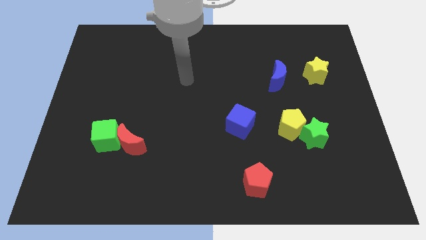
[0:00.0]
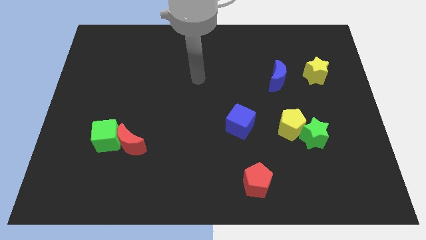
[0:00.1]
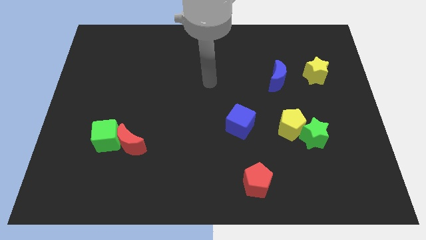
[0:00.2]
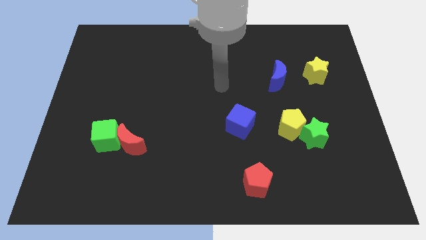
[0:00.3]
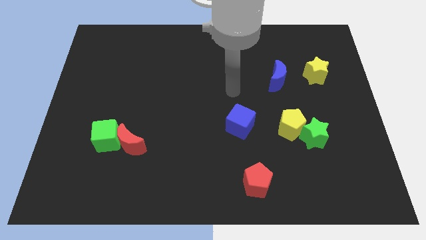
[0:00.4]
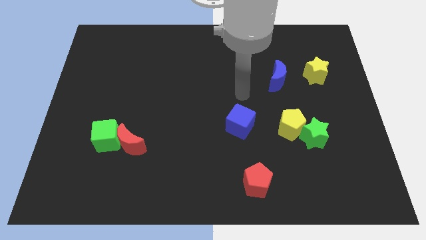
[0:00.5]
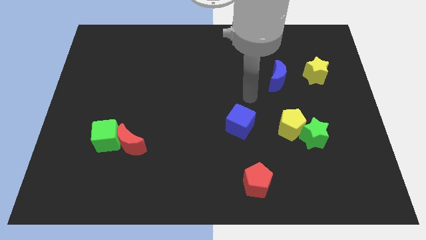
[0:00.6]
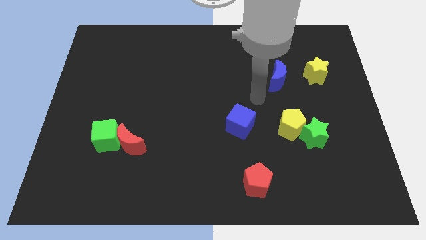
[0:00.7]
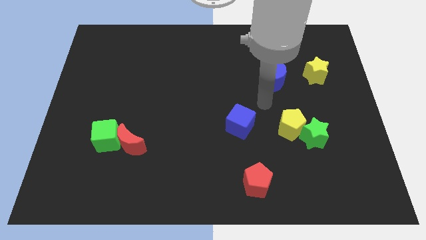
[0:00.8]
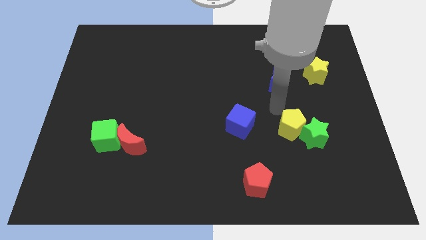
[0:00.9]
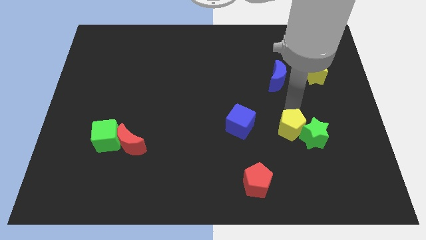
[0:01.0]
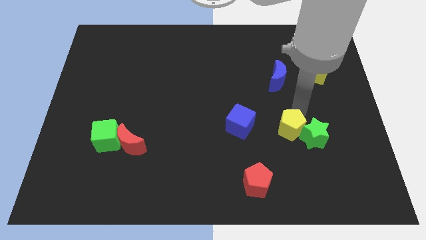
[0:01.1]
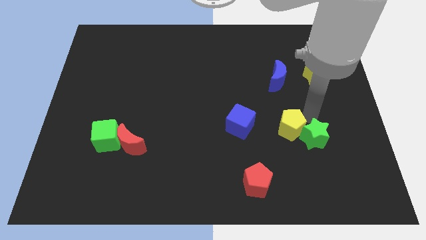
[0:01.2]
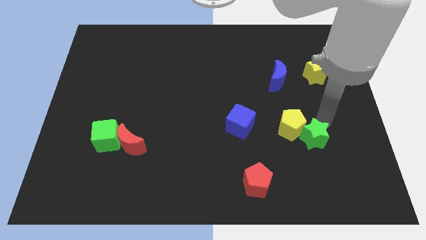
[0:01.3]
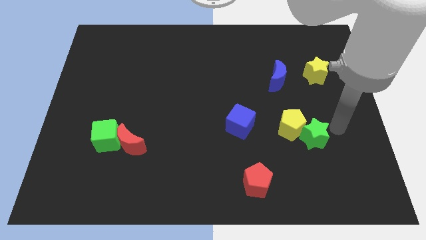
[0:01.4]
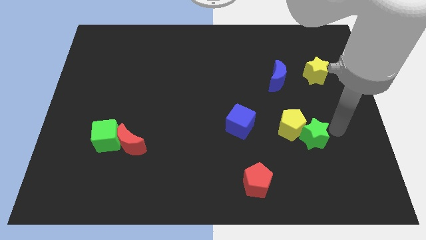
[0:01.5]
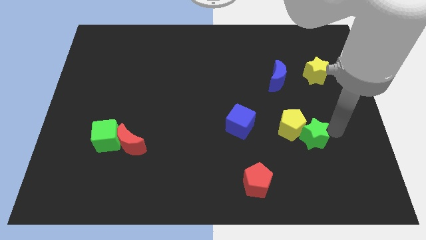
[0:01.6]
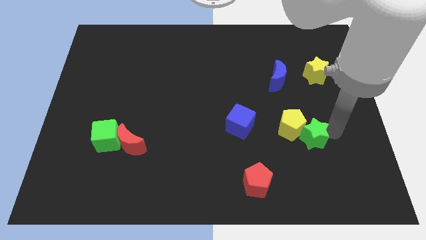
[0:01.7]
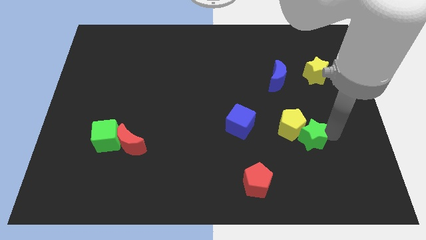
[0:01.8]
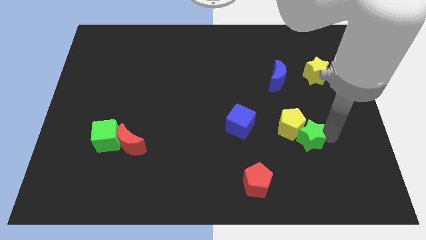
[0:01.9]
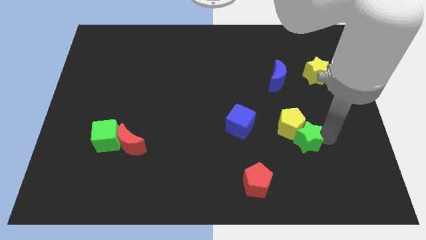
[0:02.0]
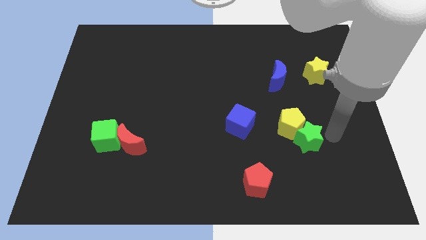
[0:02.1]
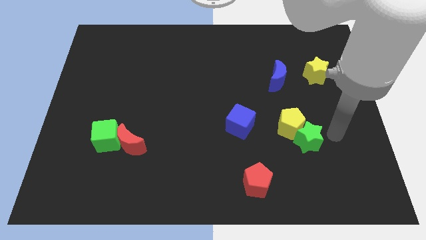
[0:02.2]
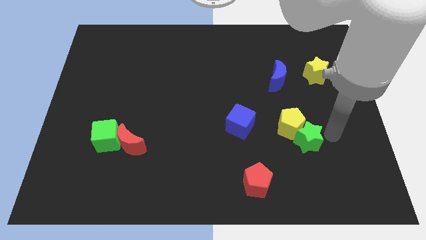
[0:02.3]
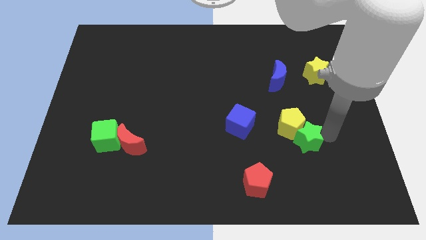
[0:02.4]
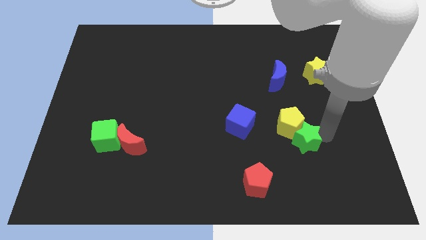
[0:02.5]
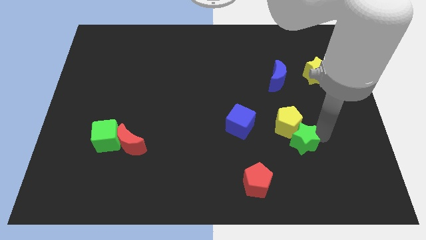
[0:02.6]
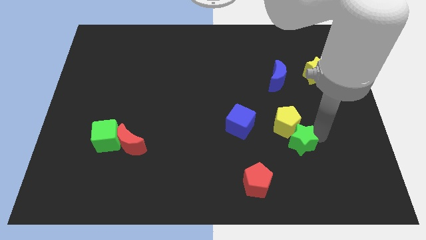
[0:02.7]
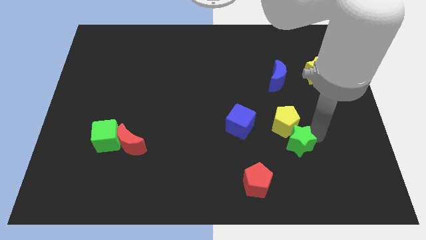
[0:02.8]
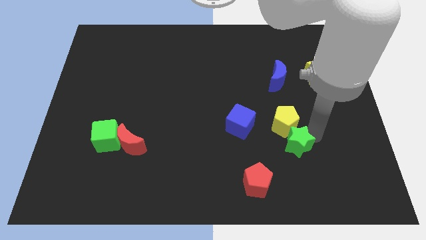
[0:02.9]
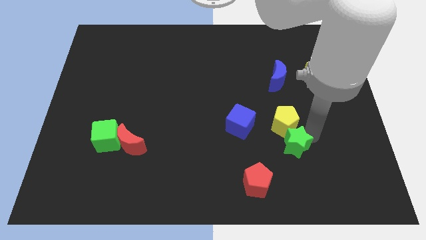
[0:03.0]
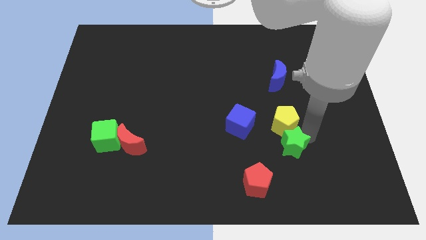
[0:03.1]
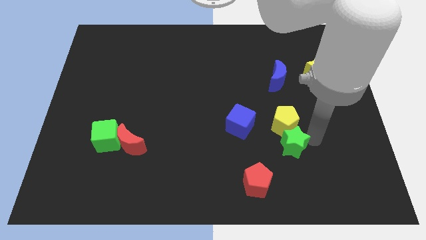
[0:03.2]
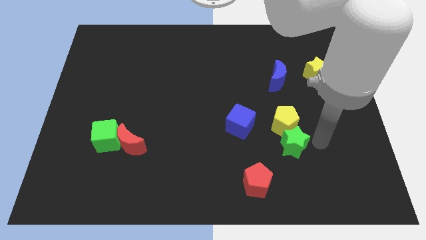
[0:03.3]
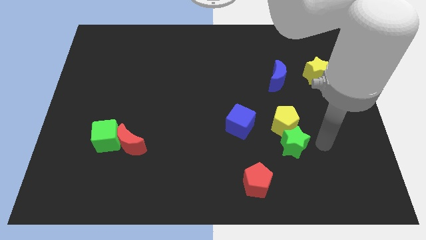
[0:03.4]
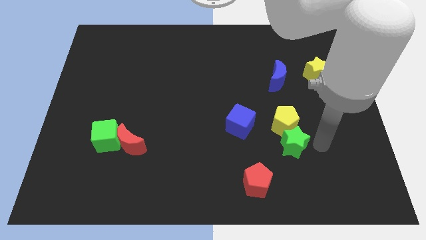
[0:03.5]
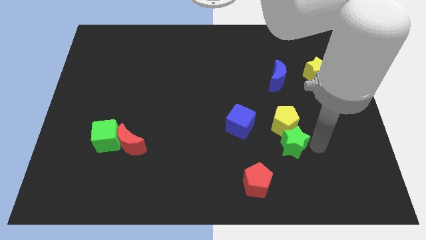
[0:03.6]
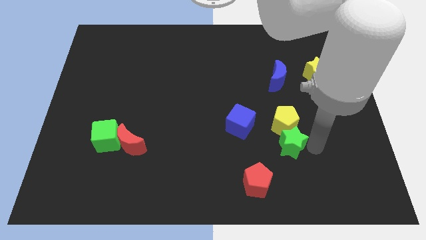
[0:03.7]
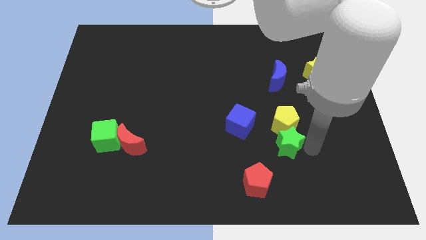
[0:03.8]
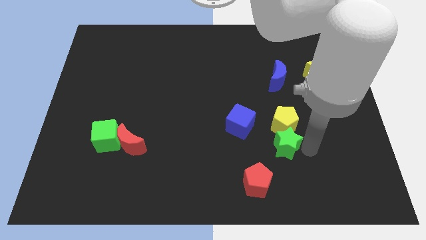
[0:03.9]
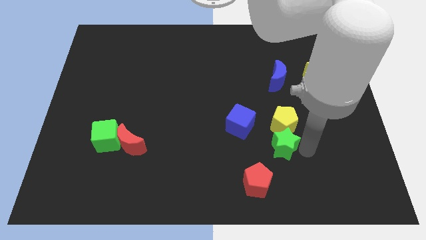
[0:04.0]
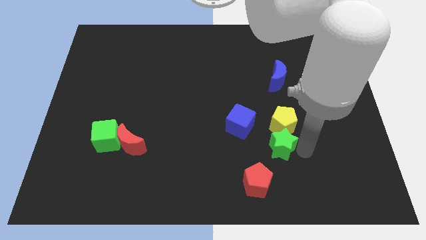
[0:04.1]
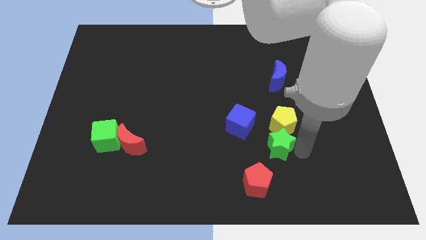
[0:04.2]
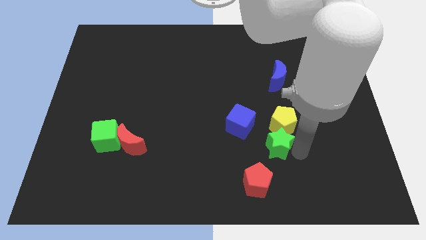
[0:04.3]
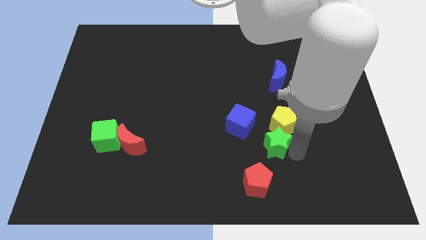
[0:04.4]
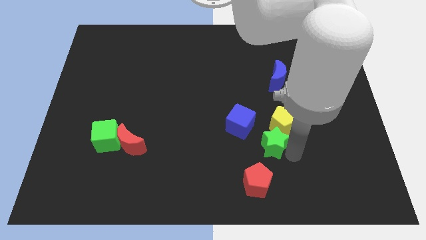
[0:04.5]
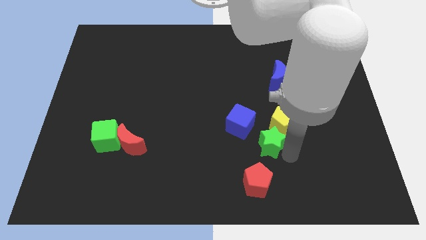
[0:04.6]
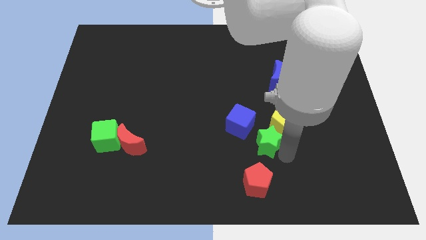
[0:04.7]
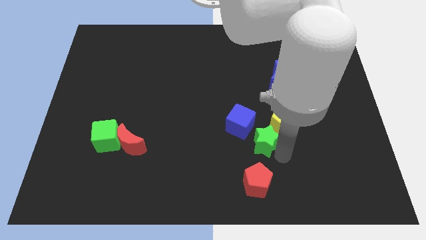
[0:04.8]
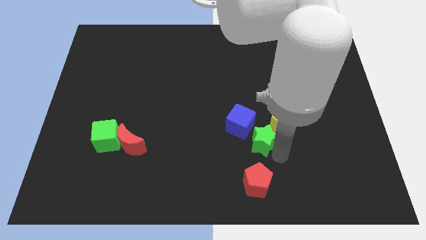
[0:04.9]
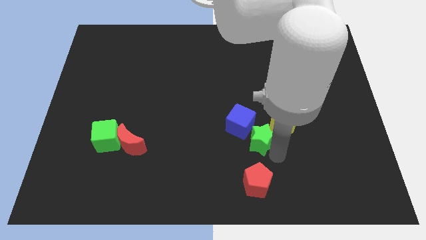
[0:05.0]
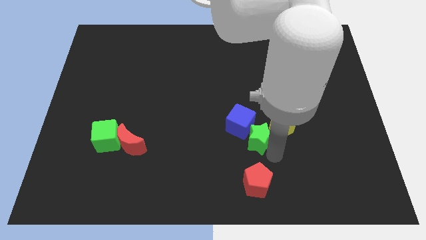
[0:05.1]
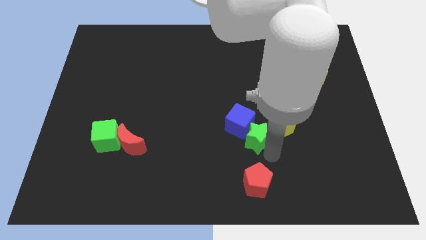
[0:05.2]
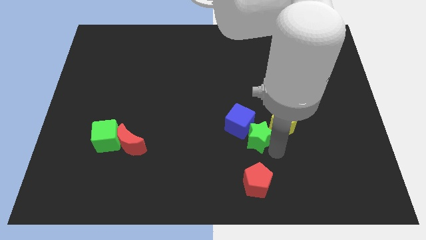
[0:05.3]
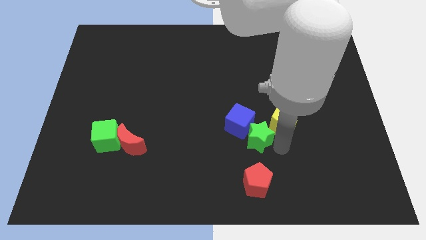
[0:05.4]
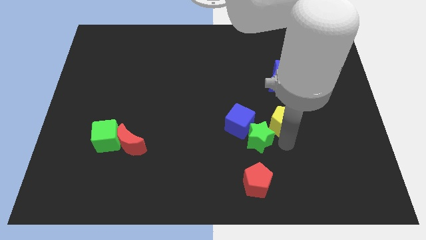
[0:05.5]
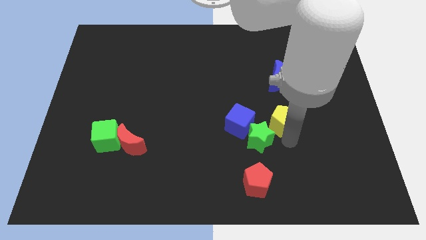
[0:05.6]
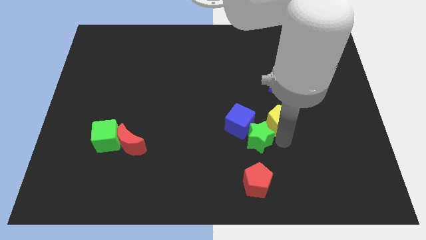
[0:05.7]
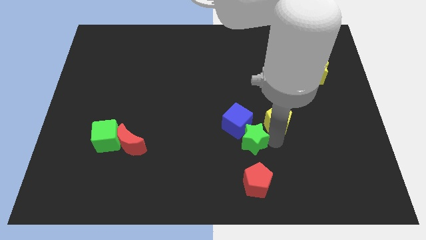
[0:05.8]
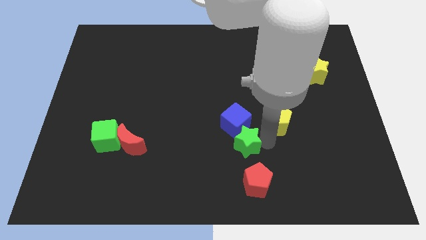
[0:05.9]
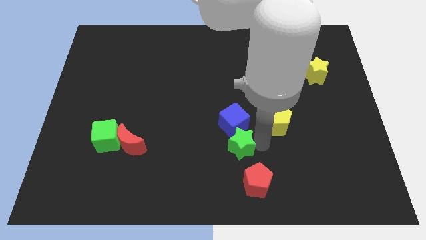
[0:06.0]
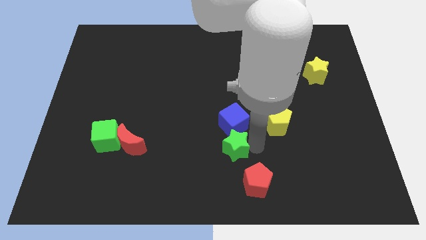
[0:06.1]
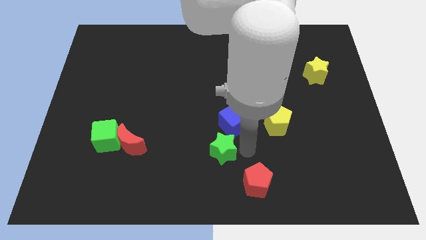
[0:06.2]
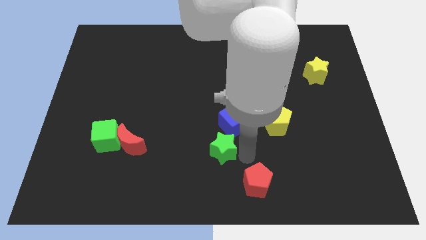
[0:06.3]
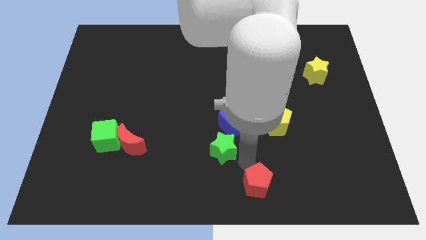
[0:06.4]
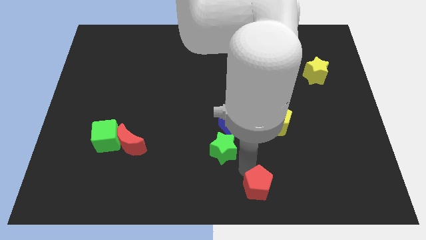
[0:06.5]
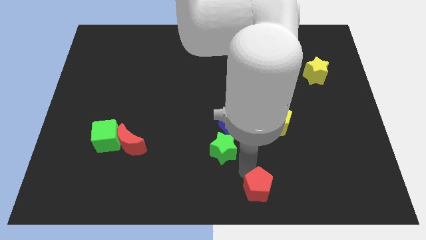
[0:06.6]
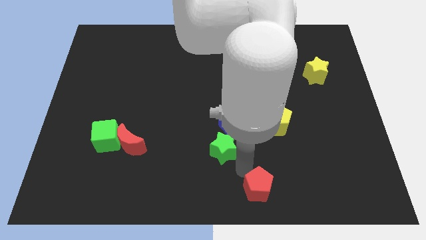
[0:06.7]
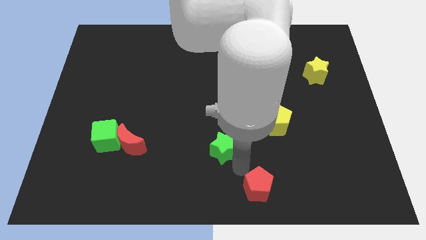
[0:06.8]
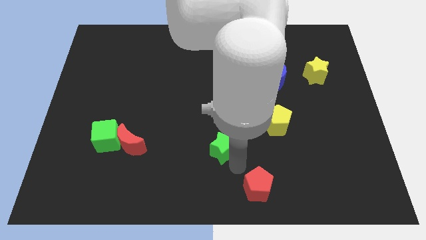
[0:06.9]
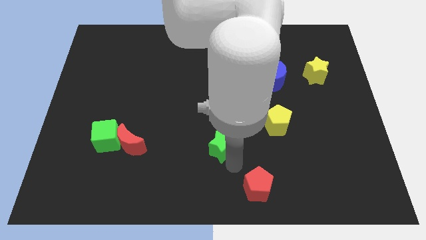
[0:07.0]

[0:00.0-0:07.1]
slide the green star to the left

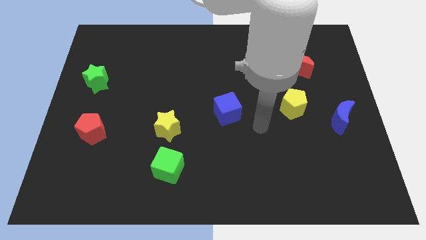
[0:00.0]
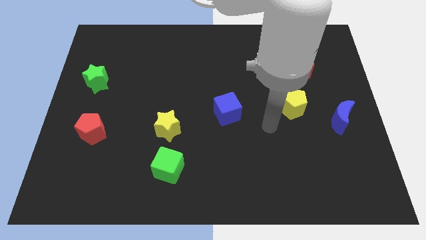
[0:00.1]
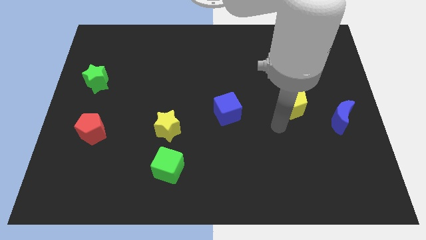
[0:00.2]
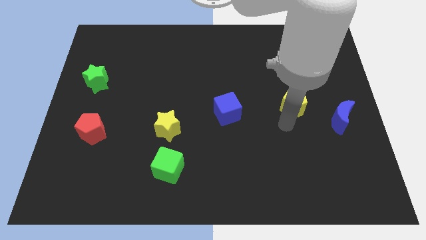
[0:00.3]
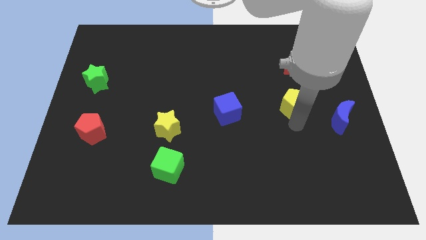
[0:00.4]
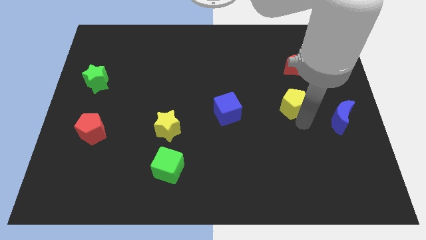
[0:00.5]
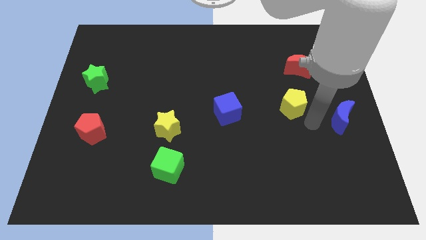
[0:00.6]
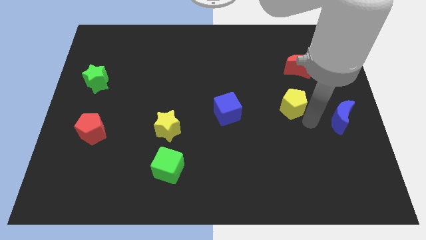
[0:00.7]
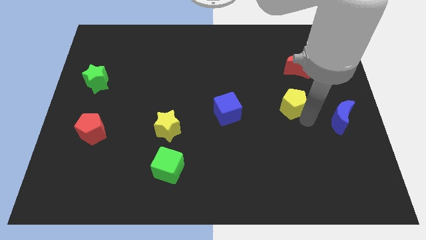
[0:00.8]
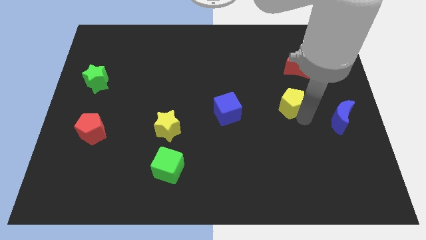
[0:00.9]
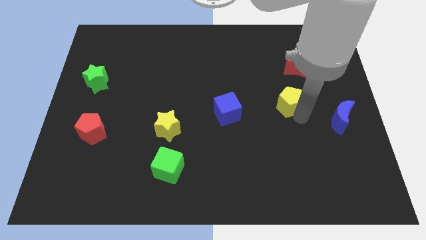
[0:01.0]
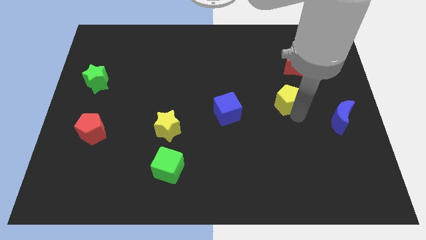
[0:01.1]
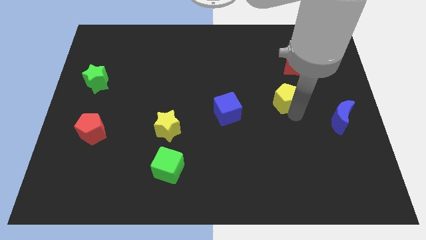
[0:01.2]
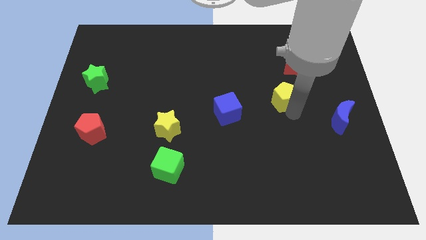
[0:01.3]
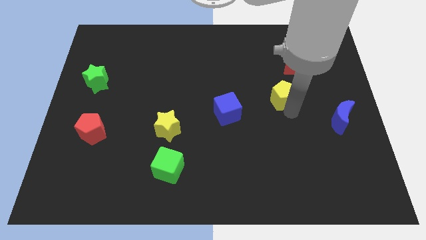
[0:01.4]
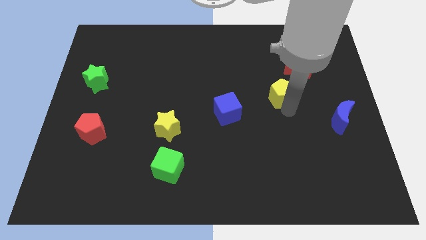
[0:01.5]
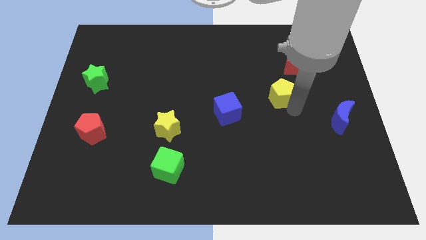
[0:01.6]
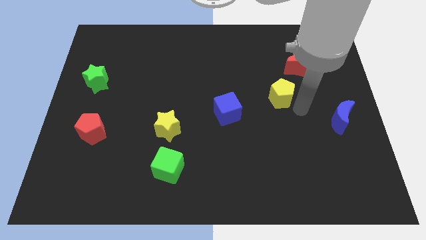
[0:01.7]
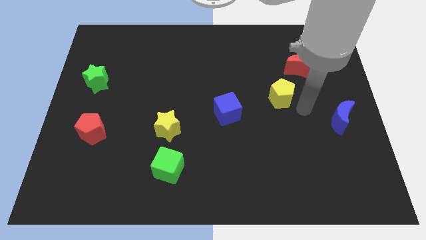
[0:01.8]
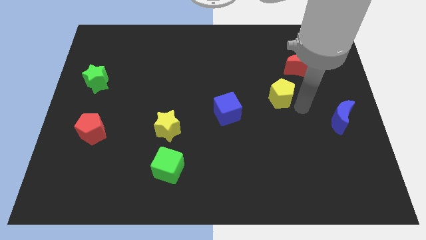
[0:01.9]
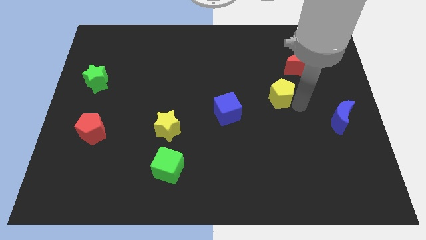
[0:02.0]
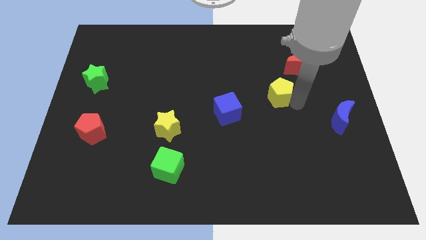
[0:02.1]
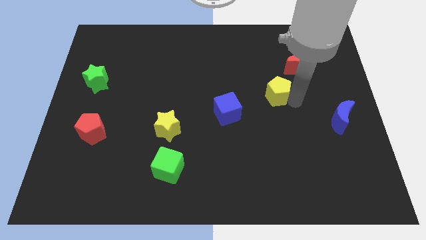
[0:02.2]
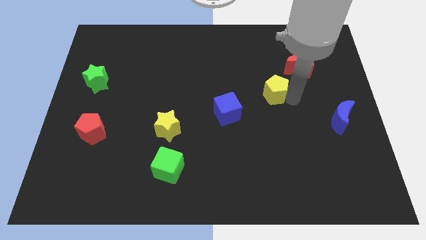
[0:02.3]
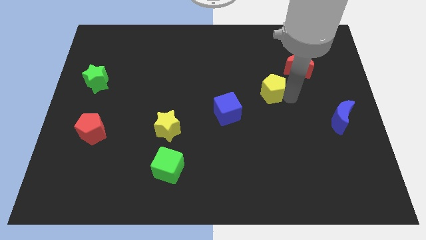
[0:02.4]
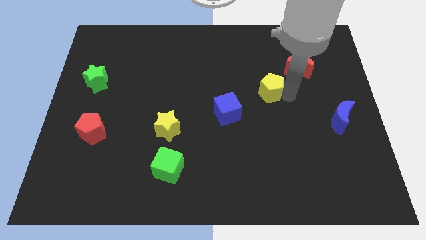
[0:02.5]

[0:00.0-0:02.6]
slide the yellow pentagon slightly upwards and then to the left
